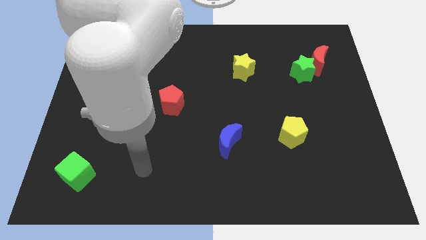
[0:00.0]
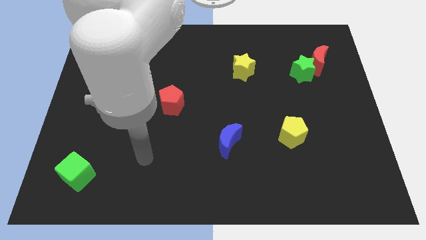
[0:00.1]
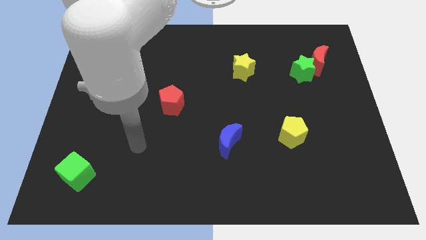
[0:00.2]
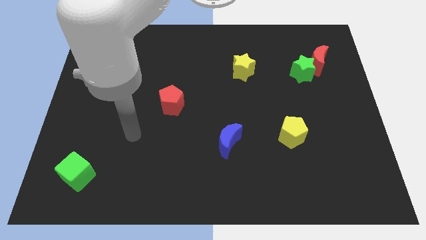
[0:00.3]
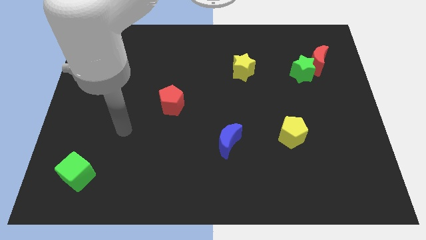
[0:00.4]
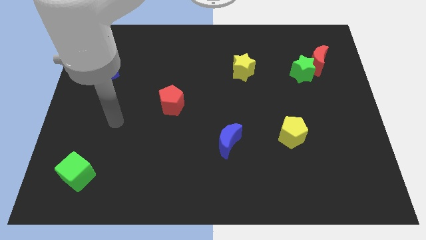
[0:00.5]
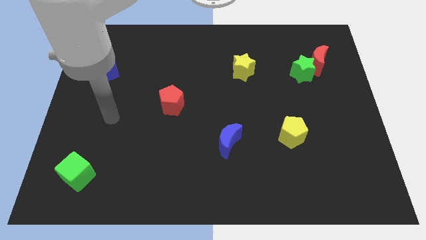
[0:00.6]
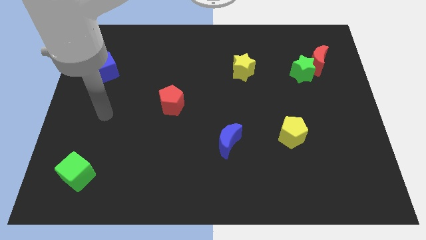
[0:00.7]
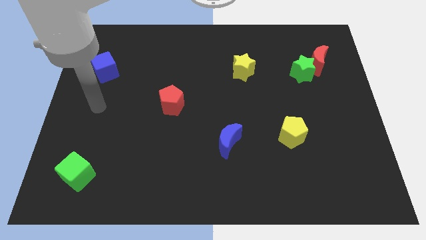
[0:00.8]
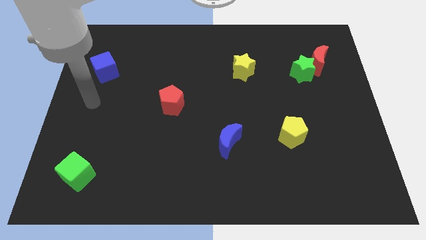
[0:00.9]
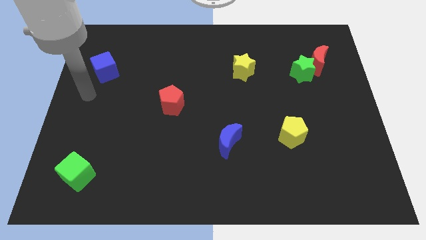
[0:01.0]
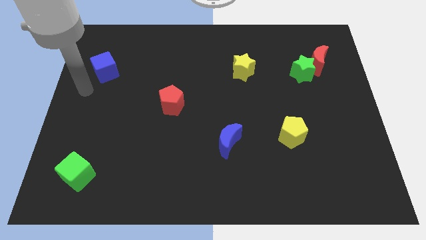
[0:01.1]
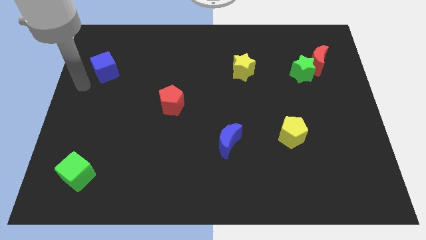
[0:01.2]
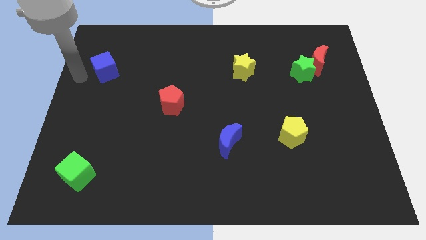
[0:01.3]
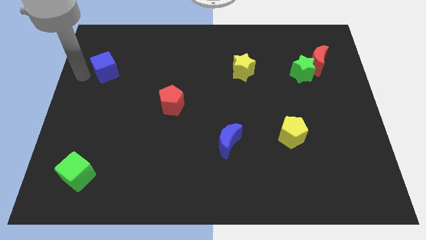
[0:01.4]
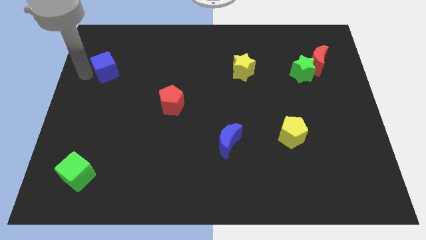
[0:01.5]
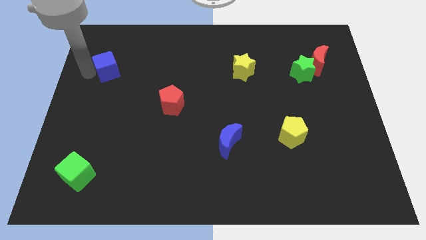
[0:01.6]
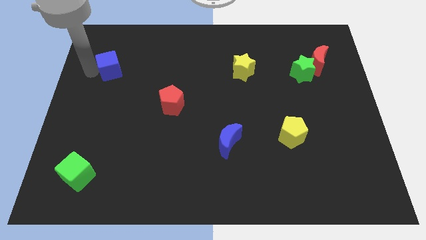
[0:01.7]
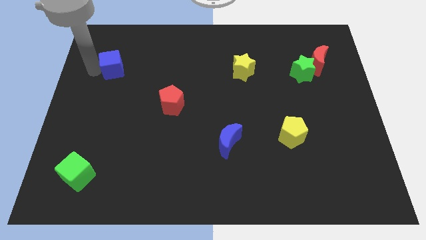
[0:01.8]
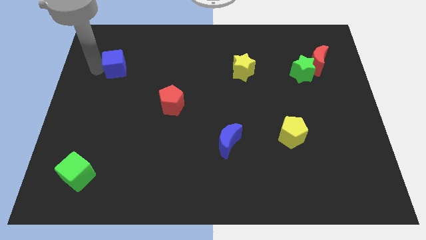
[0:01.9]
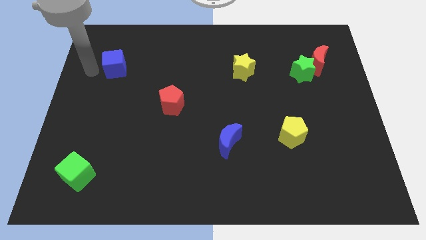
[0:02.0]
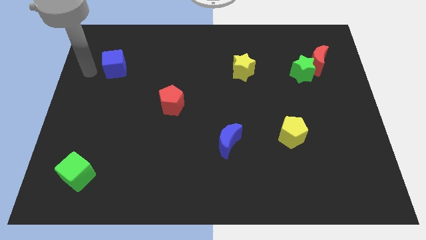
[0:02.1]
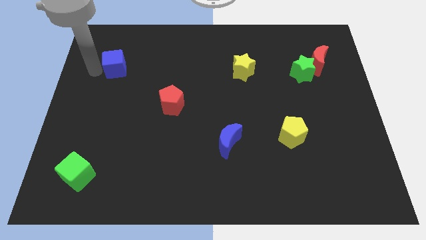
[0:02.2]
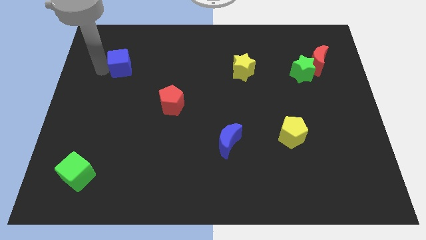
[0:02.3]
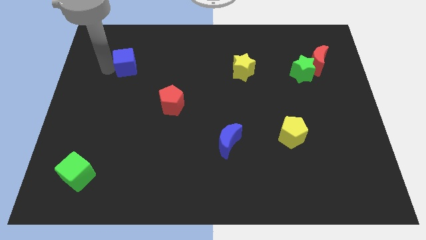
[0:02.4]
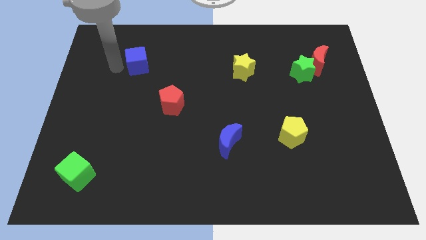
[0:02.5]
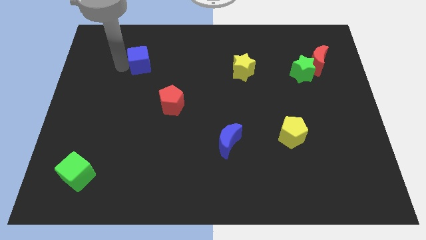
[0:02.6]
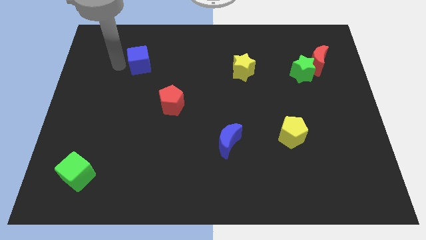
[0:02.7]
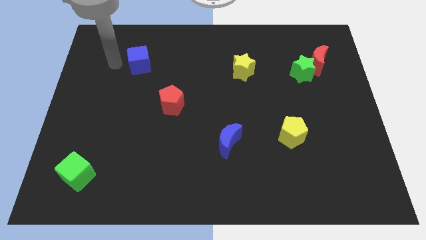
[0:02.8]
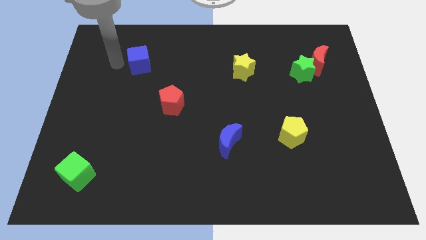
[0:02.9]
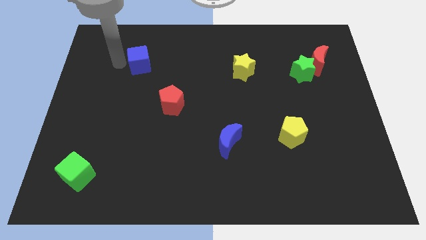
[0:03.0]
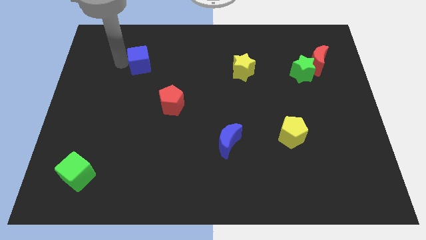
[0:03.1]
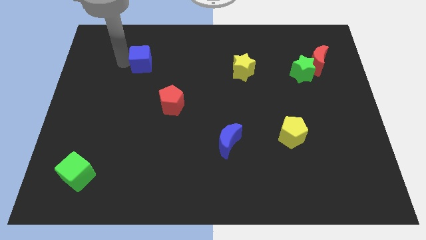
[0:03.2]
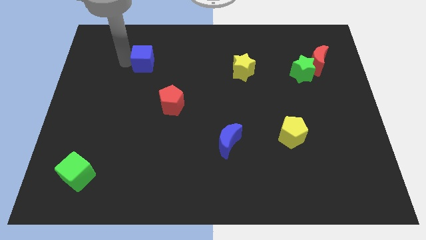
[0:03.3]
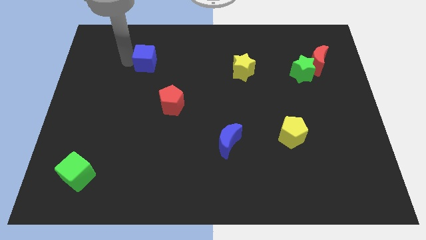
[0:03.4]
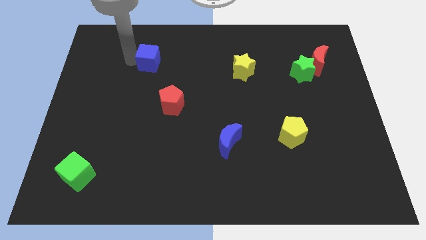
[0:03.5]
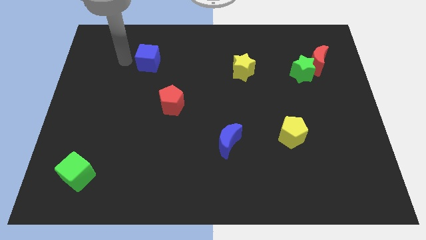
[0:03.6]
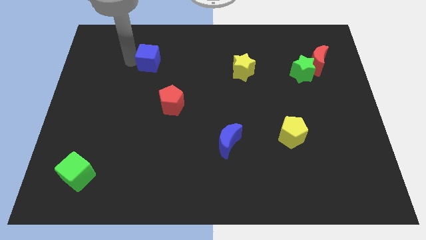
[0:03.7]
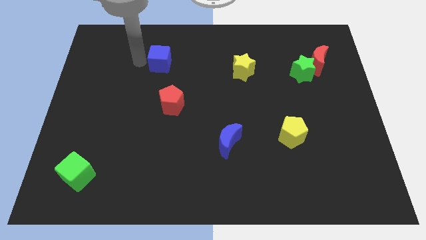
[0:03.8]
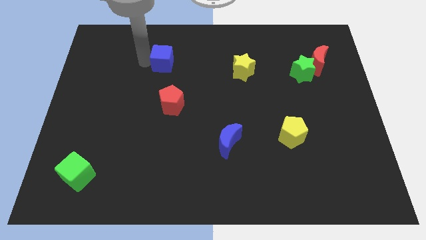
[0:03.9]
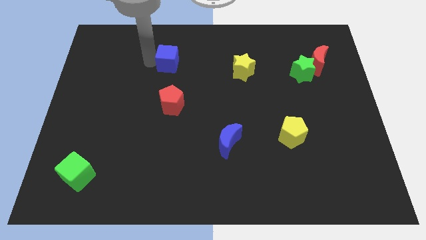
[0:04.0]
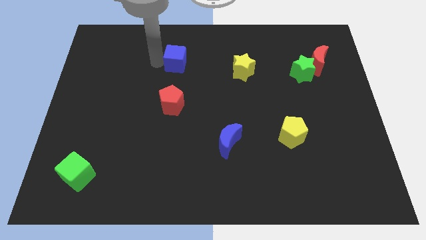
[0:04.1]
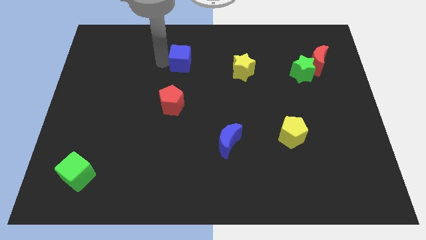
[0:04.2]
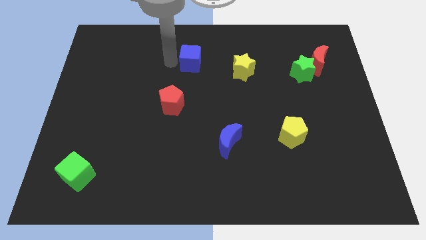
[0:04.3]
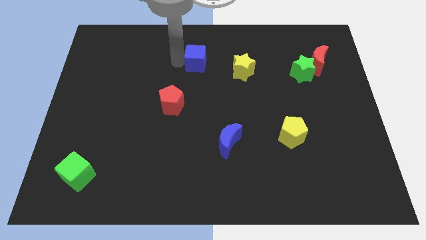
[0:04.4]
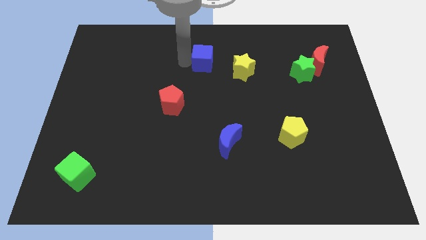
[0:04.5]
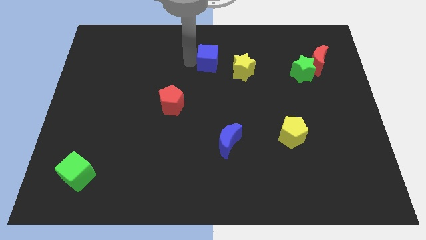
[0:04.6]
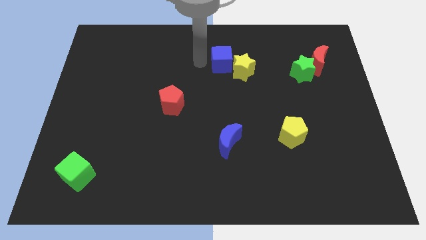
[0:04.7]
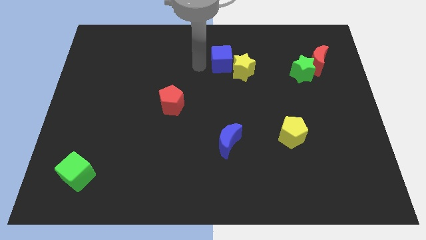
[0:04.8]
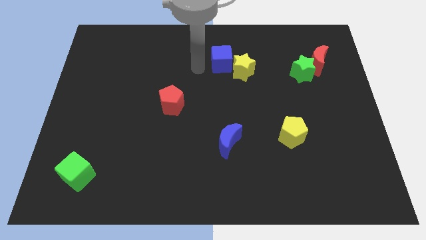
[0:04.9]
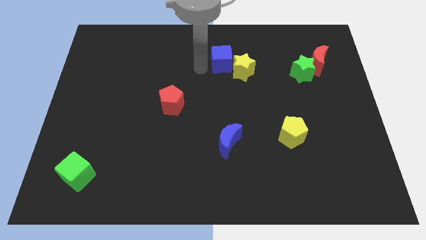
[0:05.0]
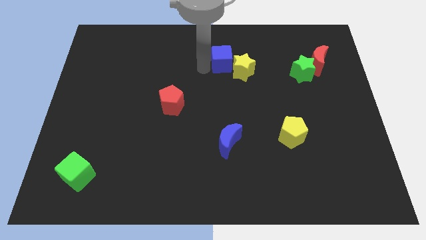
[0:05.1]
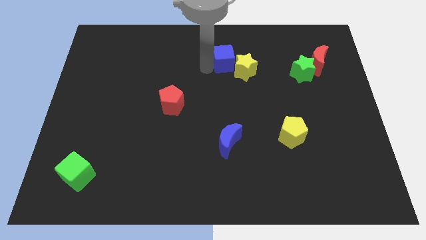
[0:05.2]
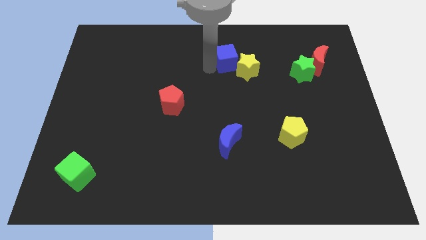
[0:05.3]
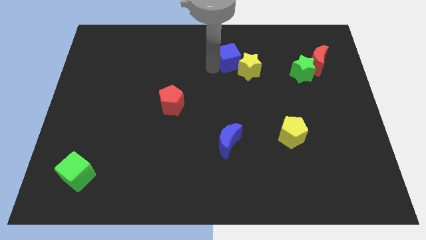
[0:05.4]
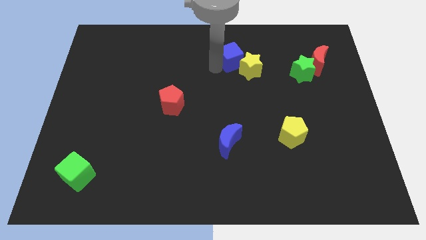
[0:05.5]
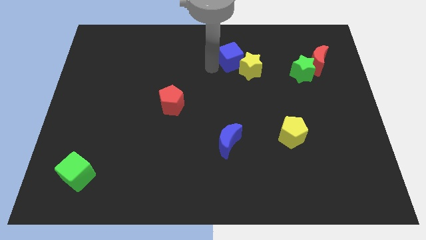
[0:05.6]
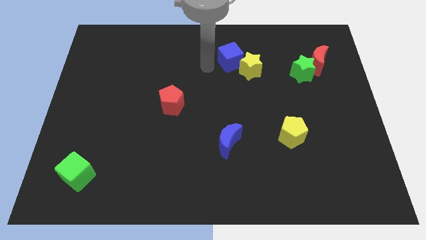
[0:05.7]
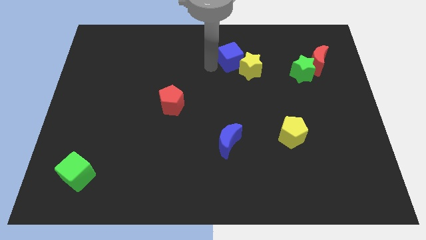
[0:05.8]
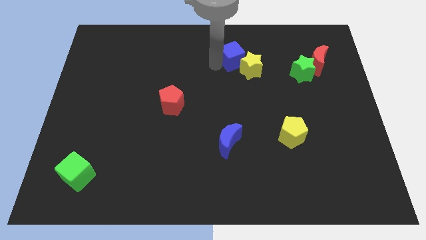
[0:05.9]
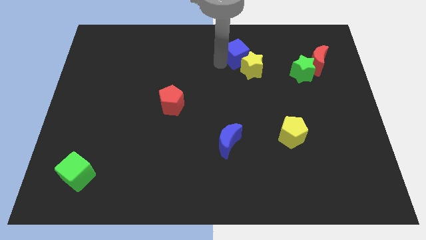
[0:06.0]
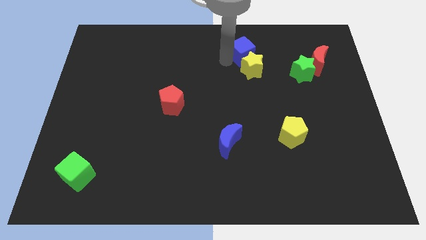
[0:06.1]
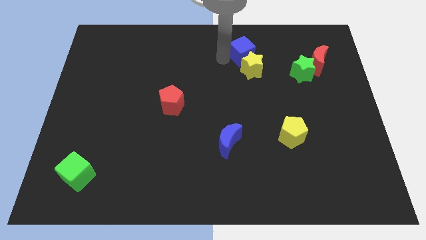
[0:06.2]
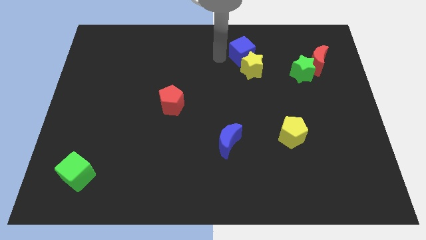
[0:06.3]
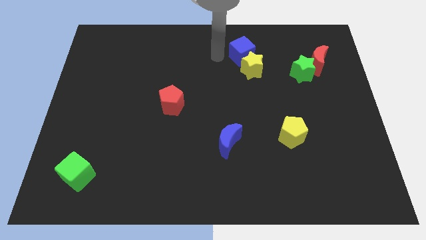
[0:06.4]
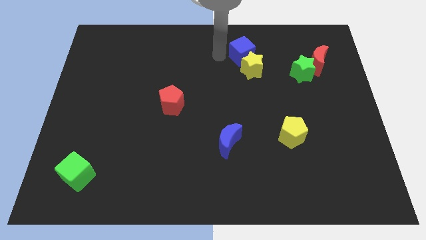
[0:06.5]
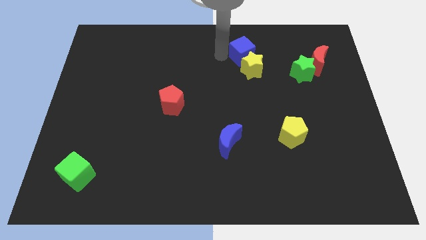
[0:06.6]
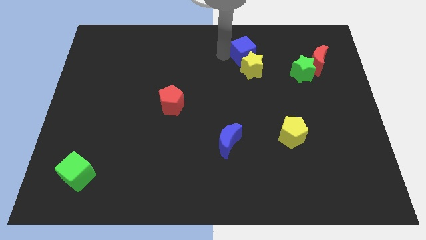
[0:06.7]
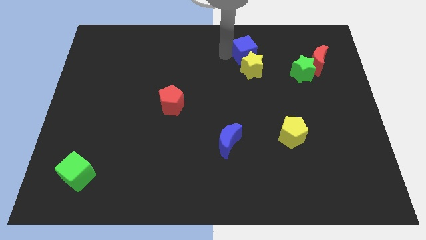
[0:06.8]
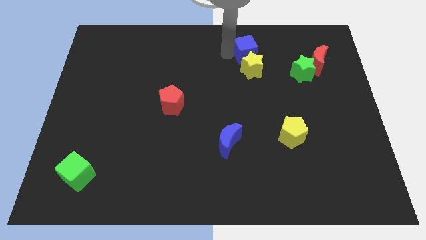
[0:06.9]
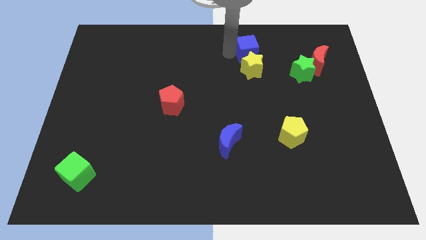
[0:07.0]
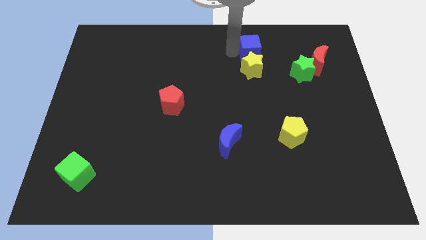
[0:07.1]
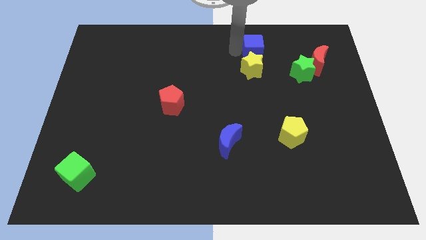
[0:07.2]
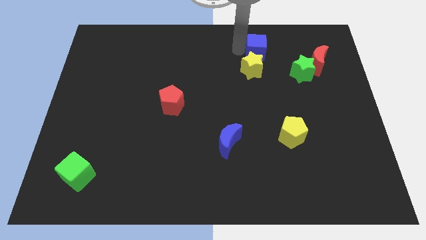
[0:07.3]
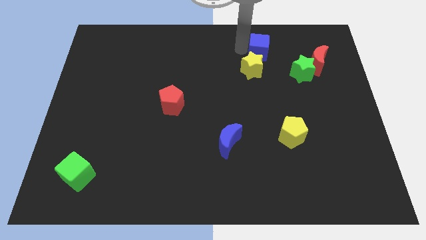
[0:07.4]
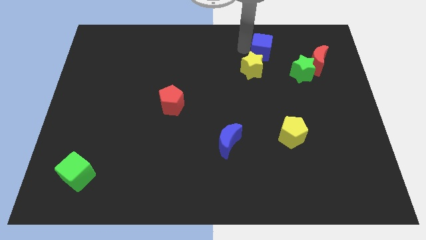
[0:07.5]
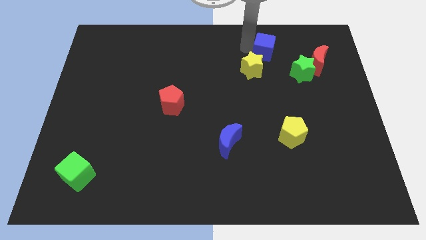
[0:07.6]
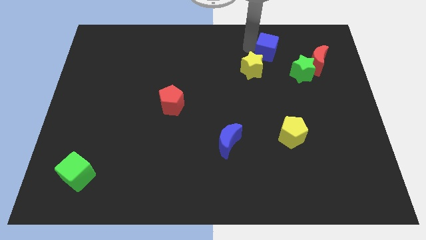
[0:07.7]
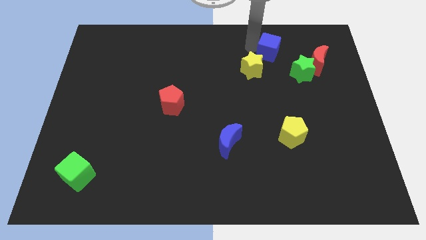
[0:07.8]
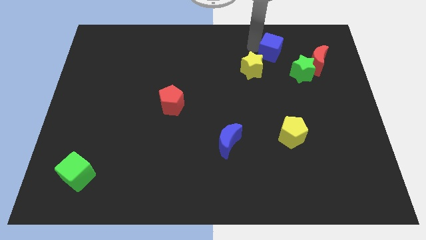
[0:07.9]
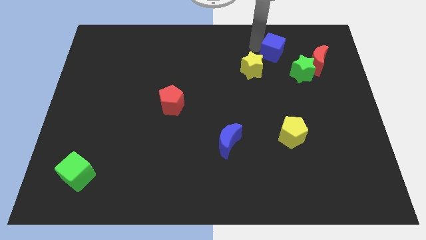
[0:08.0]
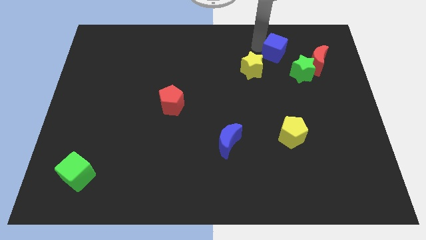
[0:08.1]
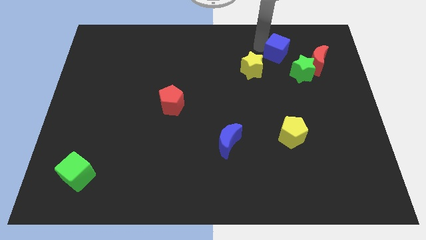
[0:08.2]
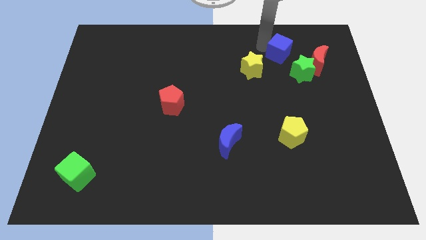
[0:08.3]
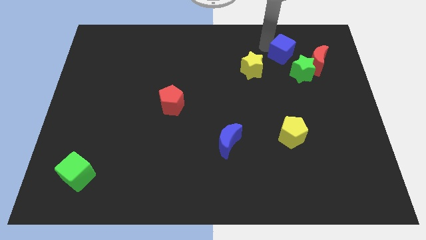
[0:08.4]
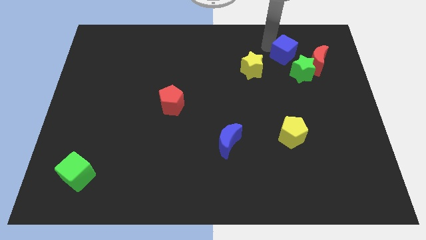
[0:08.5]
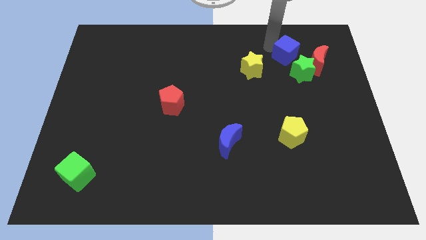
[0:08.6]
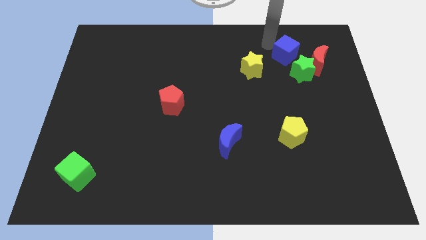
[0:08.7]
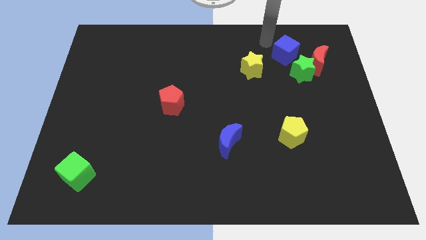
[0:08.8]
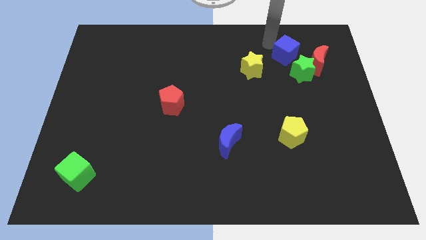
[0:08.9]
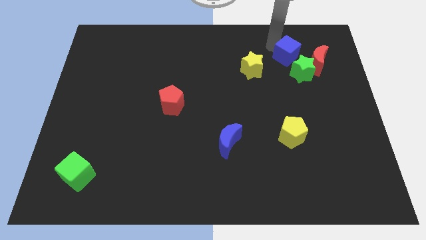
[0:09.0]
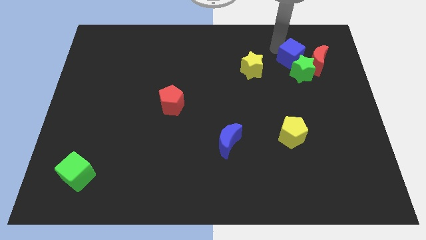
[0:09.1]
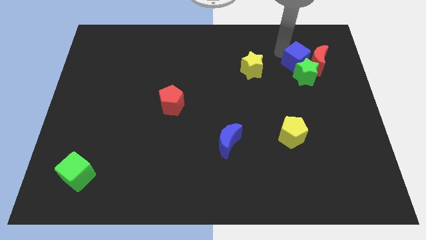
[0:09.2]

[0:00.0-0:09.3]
push the blue cube close to the red moon
